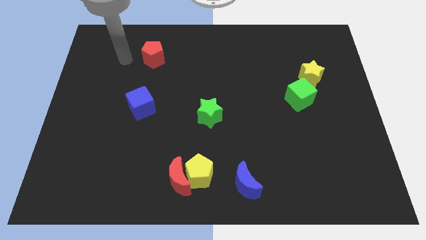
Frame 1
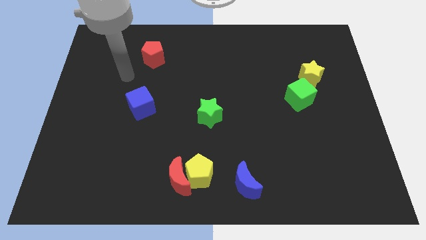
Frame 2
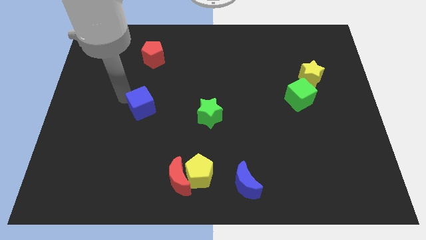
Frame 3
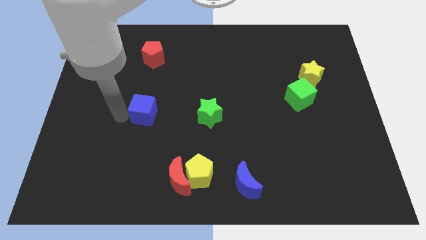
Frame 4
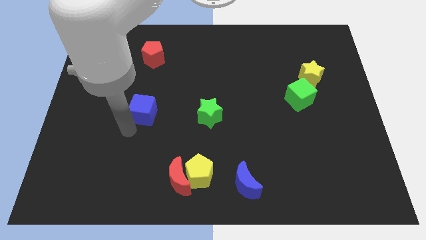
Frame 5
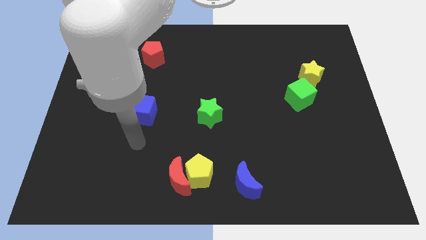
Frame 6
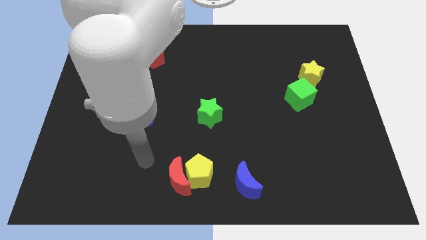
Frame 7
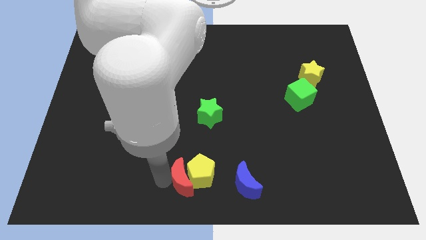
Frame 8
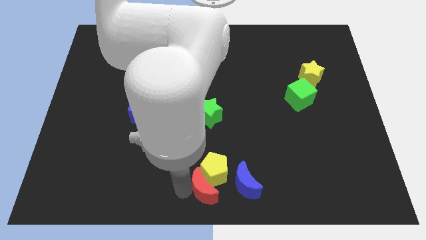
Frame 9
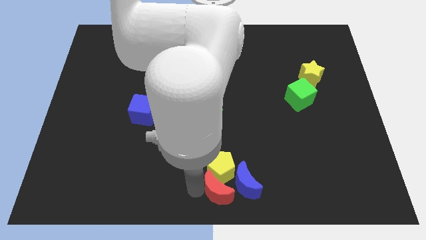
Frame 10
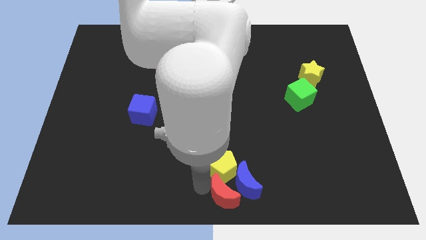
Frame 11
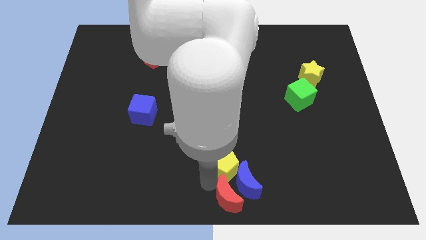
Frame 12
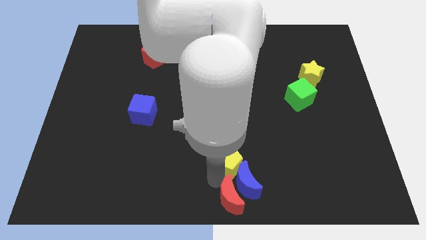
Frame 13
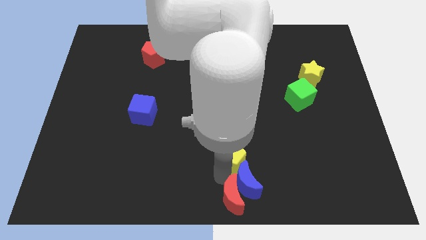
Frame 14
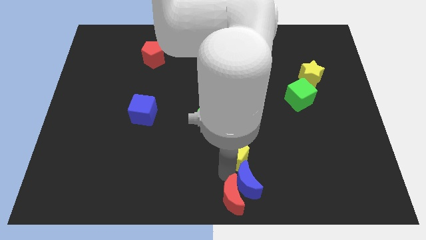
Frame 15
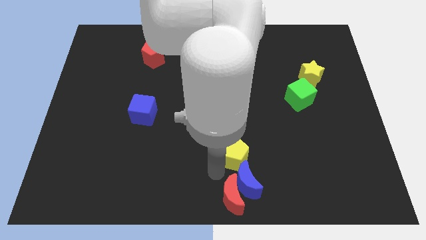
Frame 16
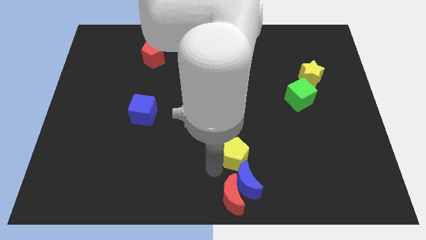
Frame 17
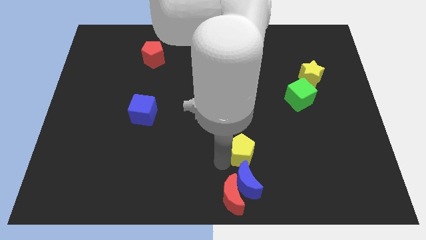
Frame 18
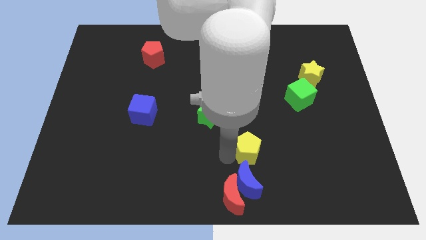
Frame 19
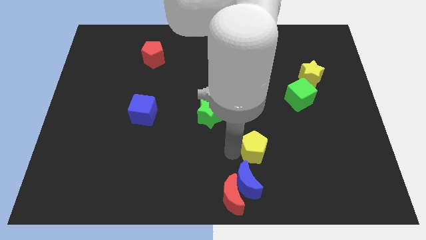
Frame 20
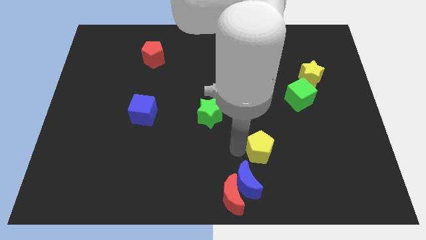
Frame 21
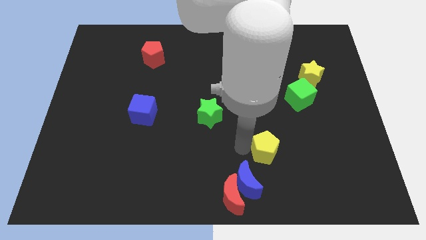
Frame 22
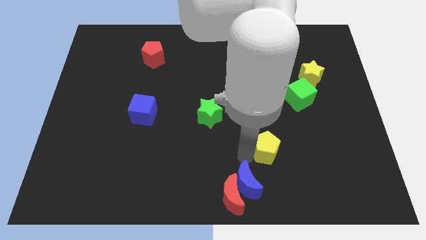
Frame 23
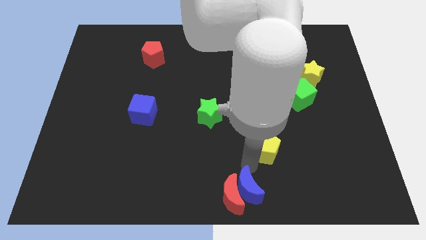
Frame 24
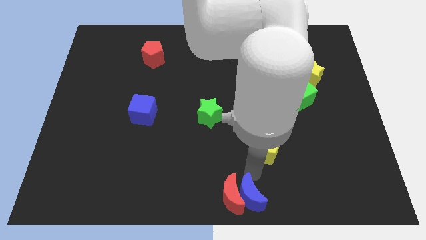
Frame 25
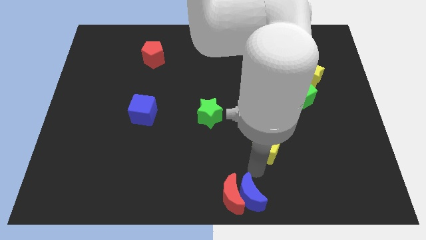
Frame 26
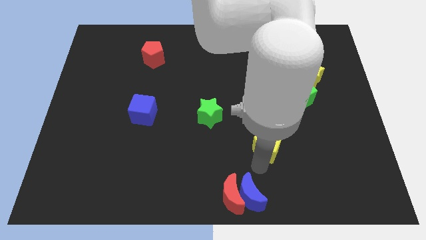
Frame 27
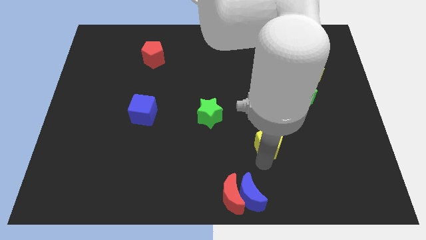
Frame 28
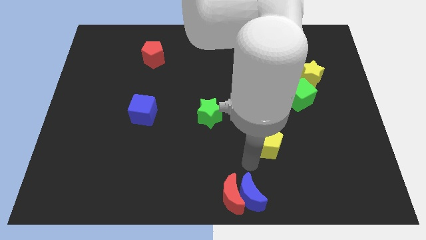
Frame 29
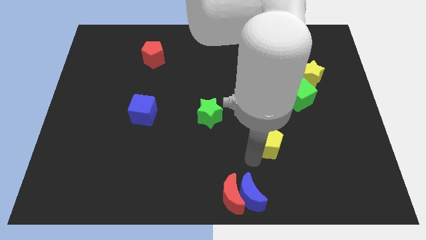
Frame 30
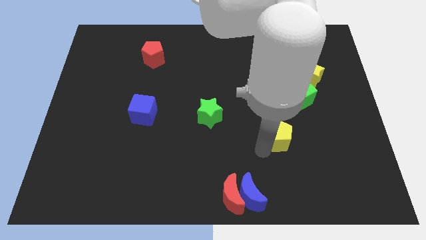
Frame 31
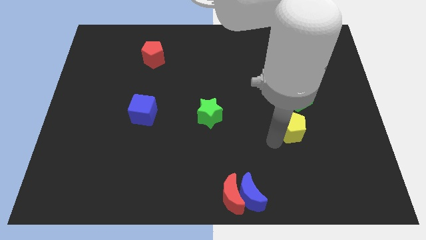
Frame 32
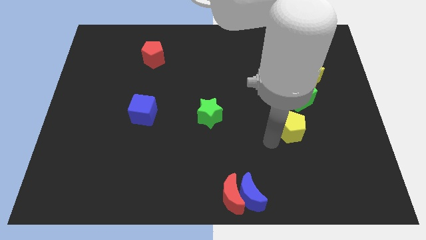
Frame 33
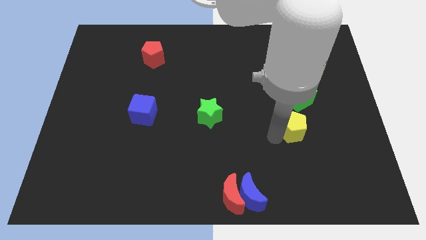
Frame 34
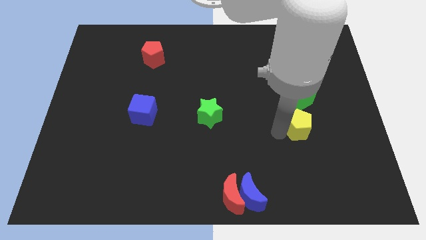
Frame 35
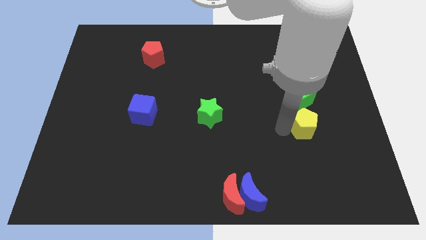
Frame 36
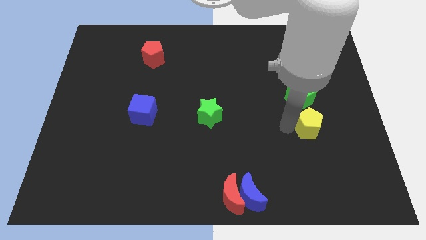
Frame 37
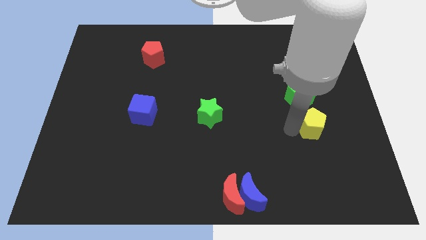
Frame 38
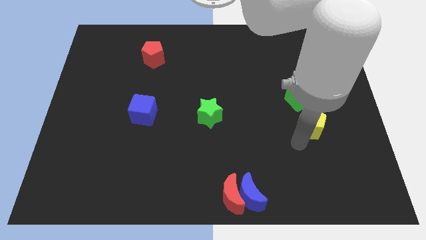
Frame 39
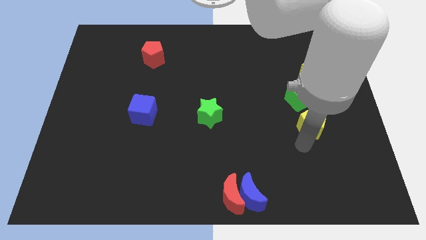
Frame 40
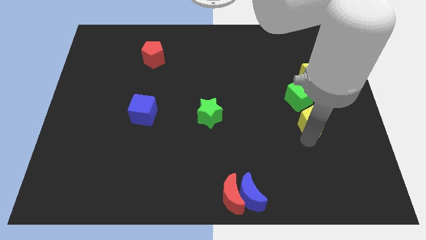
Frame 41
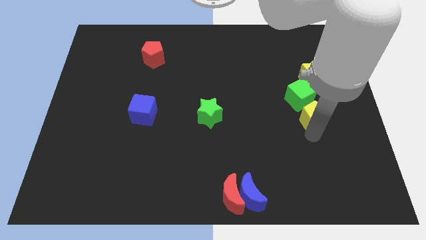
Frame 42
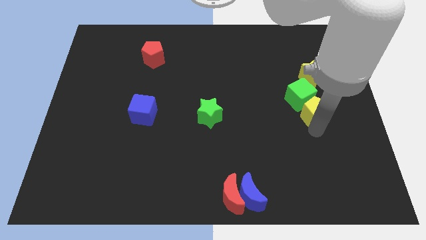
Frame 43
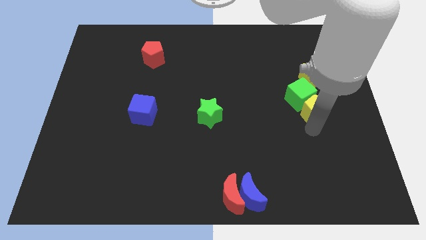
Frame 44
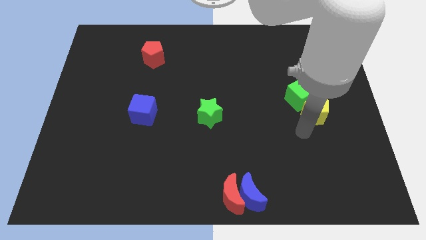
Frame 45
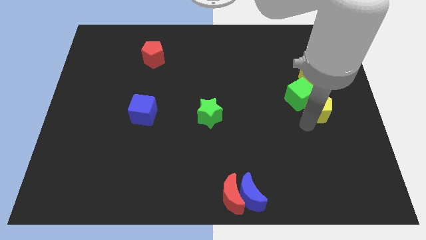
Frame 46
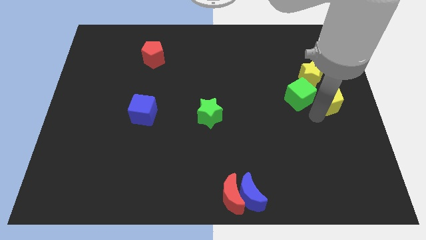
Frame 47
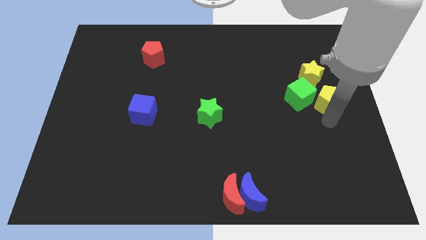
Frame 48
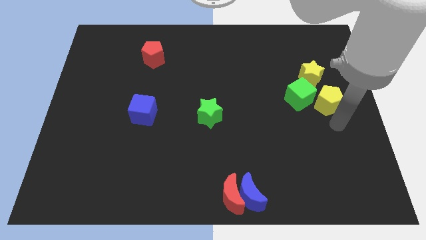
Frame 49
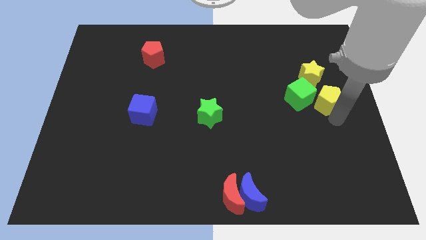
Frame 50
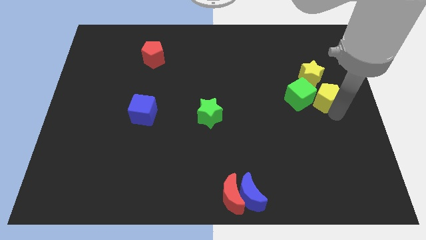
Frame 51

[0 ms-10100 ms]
put the yellow pentagon diagonally up and to the right of the green cube

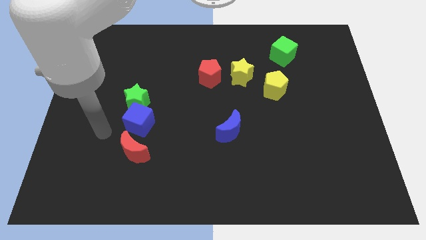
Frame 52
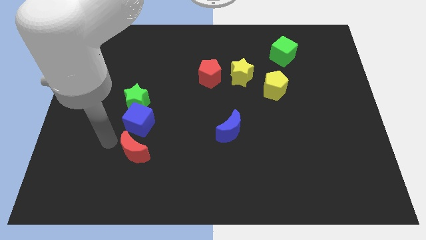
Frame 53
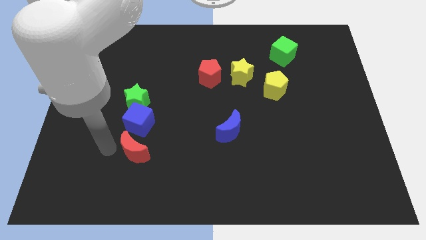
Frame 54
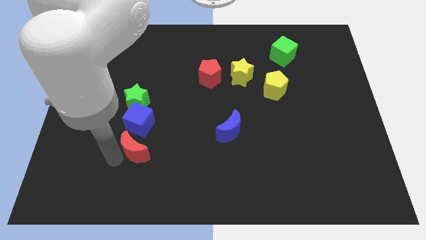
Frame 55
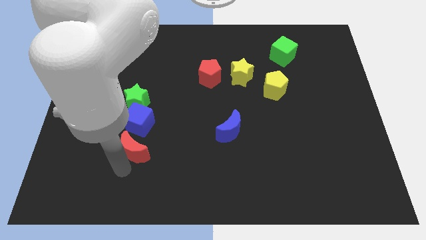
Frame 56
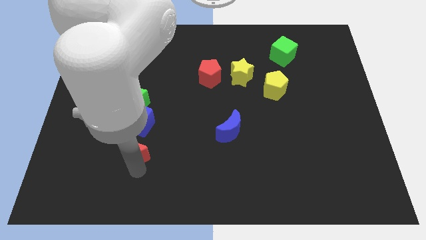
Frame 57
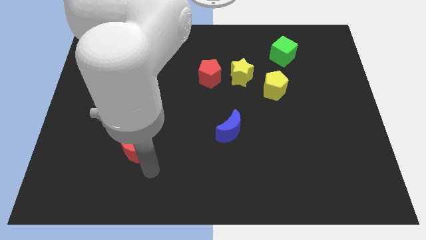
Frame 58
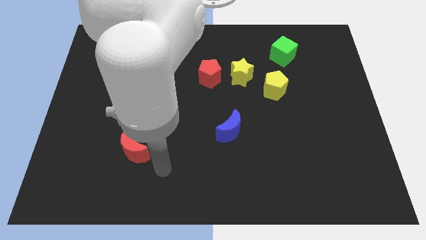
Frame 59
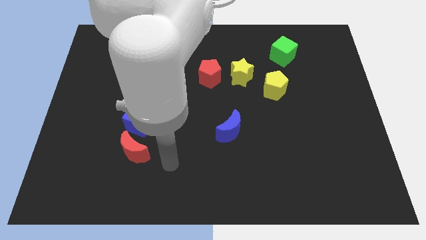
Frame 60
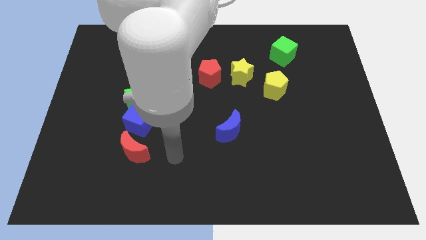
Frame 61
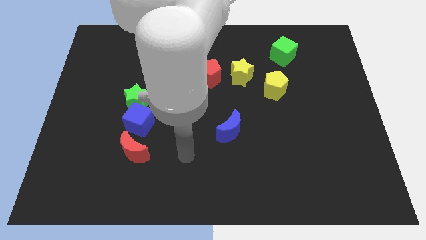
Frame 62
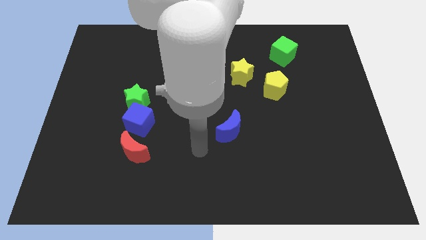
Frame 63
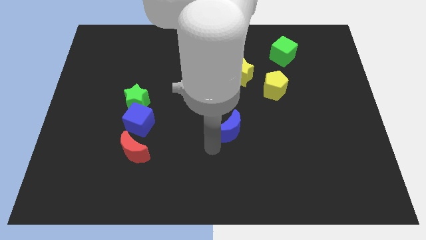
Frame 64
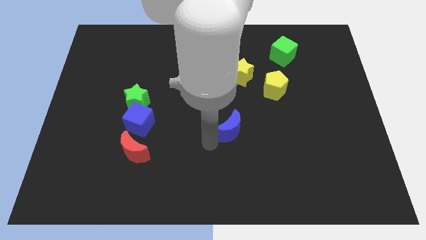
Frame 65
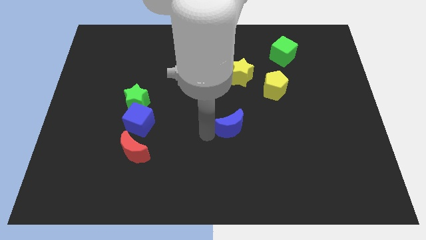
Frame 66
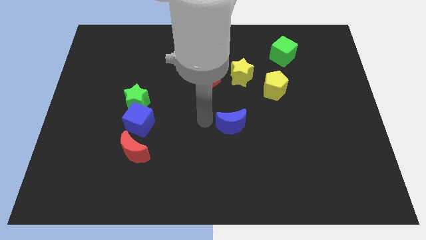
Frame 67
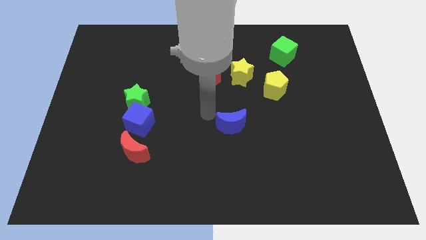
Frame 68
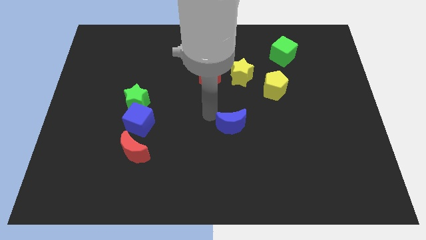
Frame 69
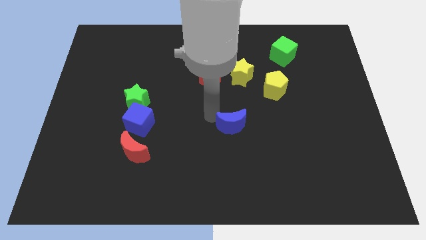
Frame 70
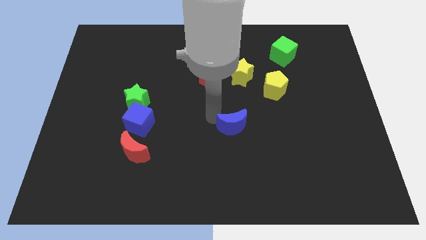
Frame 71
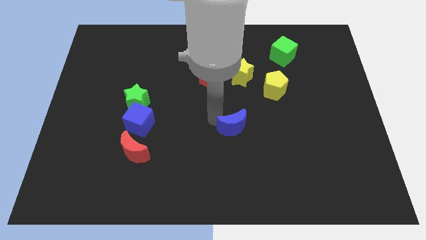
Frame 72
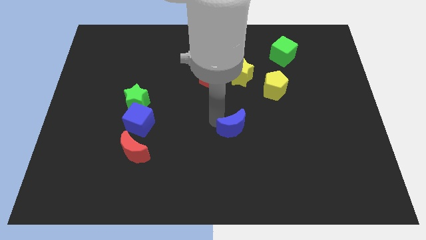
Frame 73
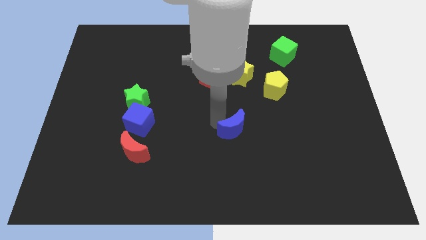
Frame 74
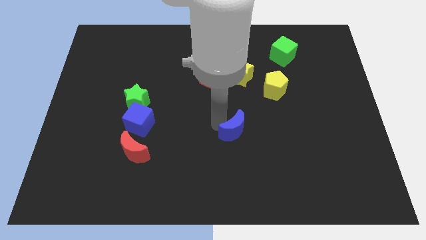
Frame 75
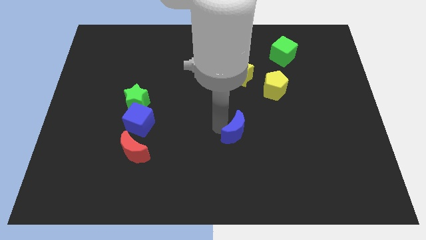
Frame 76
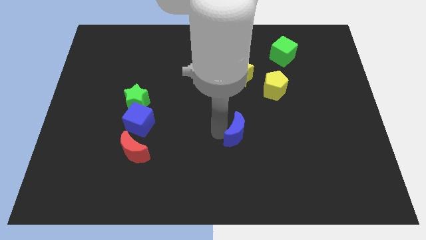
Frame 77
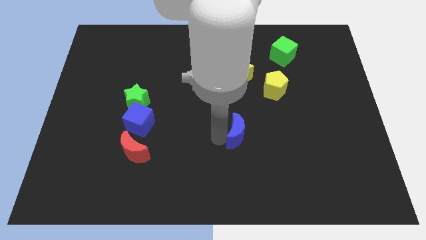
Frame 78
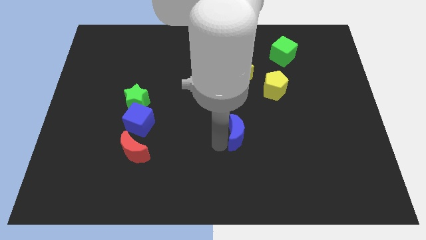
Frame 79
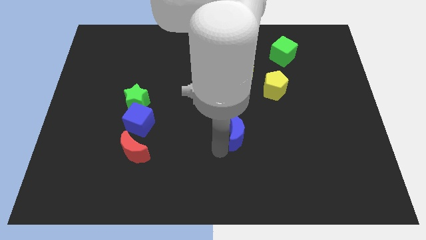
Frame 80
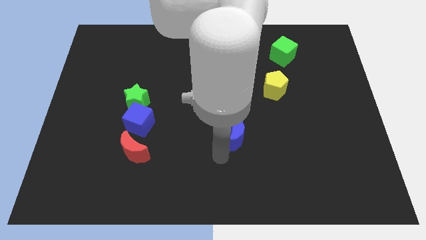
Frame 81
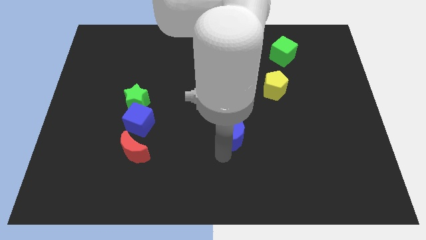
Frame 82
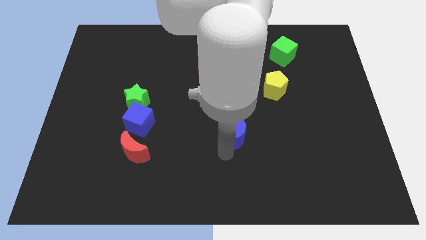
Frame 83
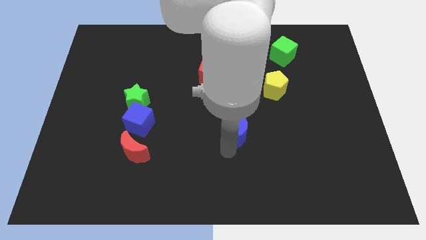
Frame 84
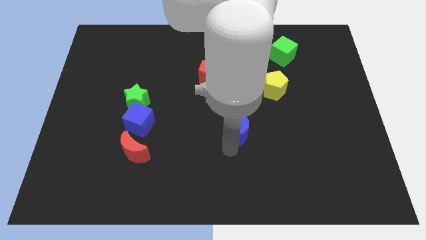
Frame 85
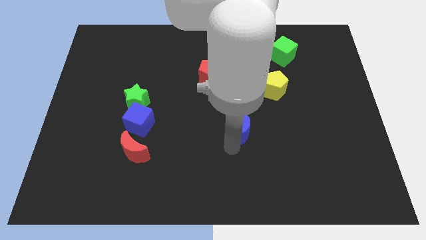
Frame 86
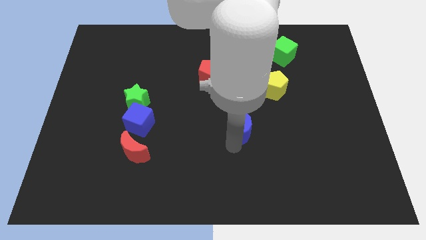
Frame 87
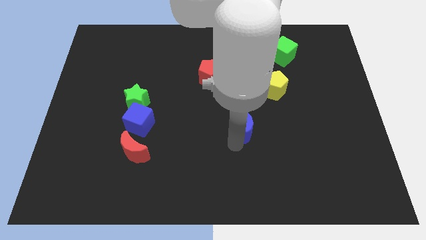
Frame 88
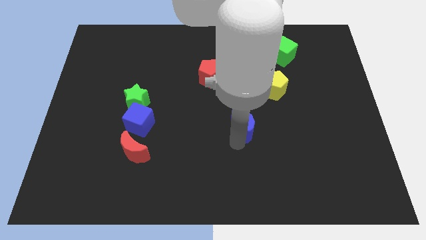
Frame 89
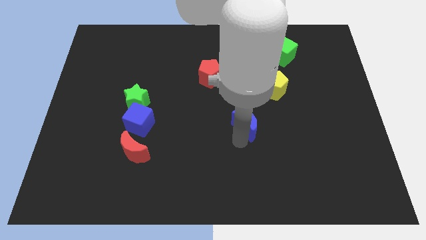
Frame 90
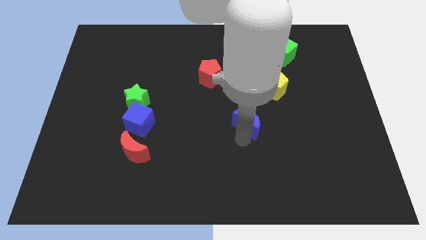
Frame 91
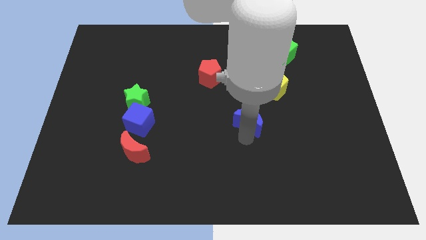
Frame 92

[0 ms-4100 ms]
put the blue moon to the bottom left of the yellow pentagon
